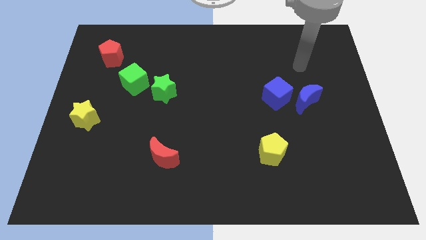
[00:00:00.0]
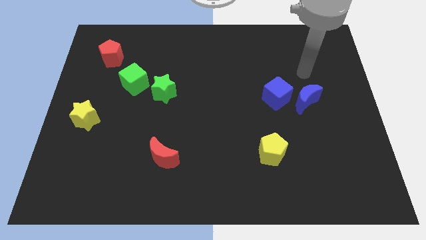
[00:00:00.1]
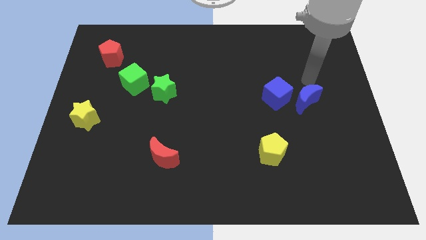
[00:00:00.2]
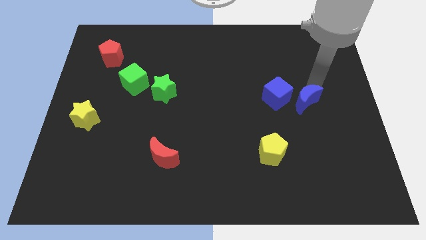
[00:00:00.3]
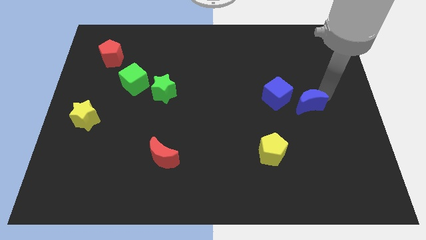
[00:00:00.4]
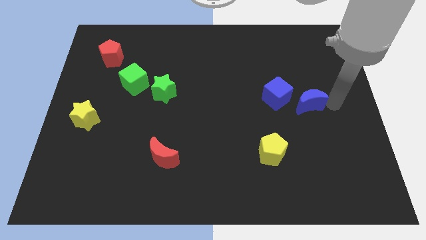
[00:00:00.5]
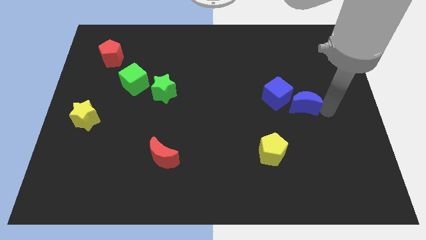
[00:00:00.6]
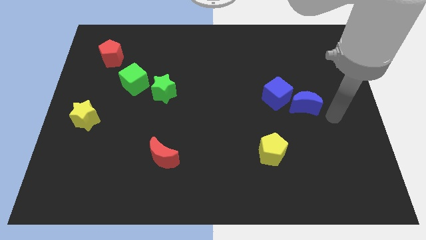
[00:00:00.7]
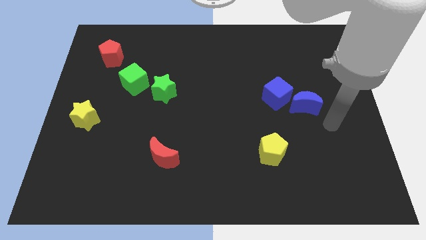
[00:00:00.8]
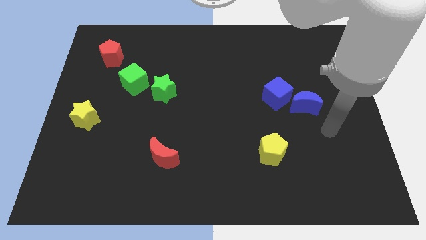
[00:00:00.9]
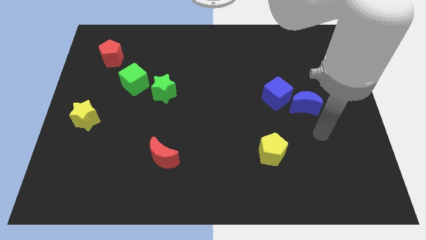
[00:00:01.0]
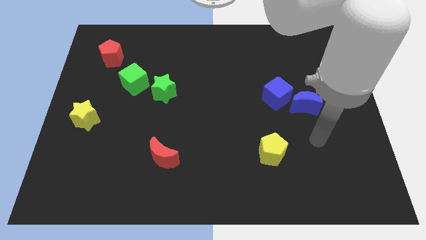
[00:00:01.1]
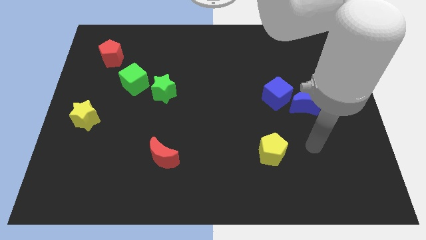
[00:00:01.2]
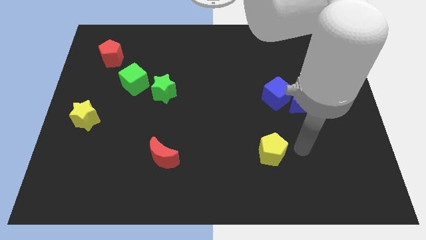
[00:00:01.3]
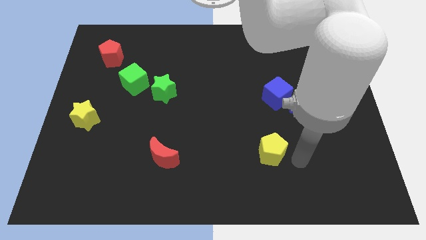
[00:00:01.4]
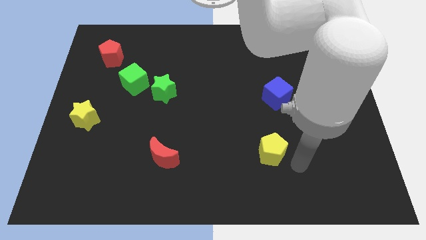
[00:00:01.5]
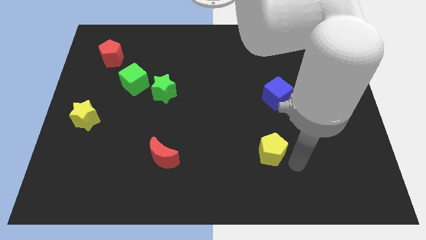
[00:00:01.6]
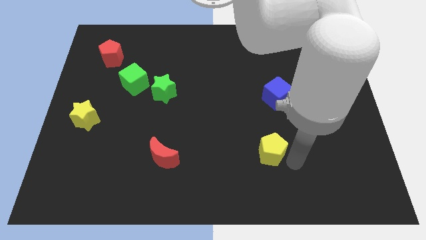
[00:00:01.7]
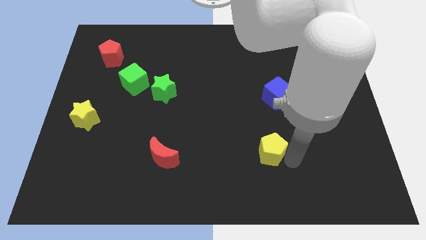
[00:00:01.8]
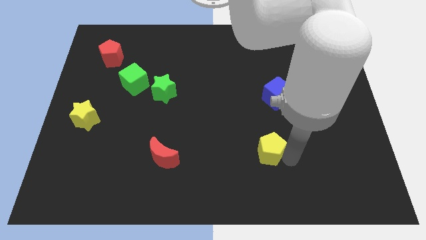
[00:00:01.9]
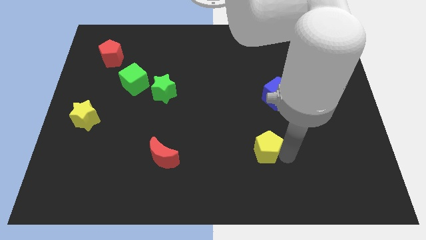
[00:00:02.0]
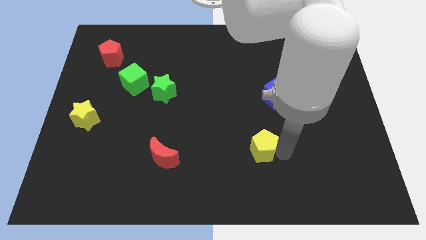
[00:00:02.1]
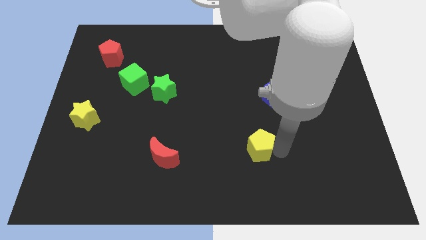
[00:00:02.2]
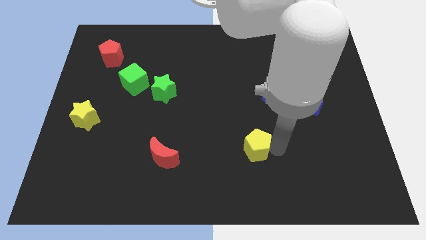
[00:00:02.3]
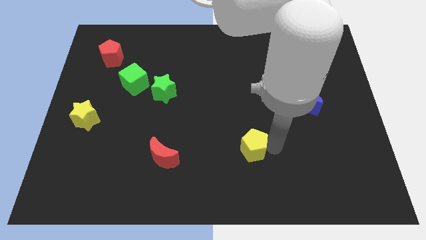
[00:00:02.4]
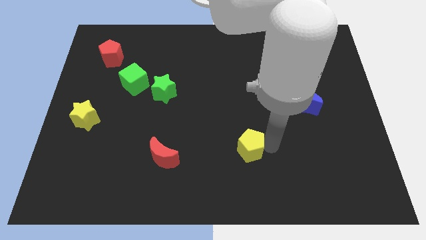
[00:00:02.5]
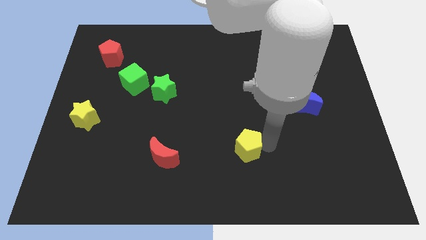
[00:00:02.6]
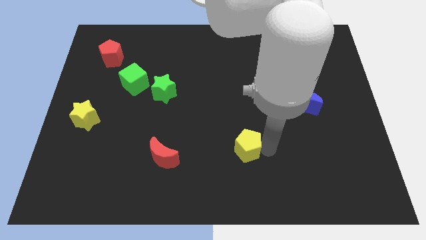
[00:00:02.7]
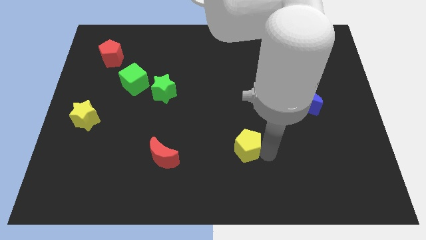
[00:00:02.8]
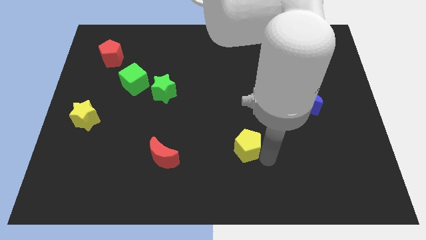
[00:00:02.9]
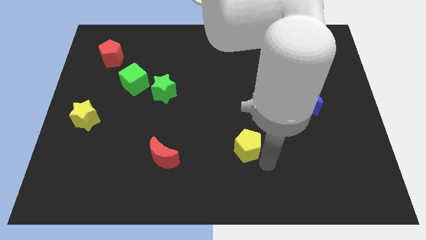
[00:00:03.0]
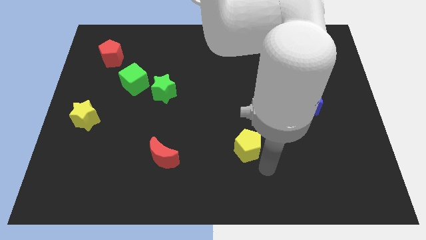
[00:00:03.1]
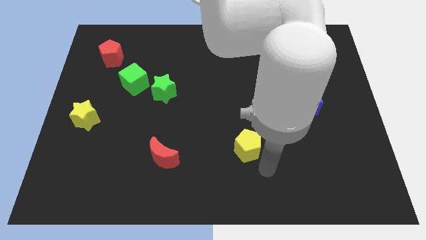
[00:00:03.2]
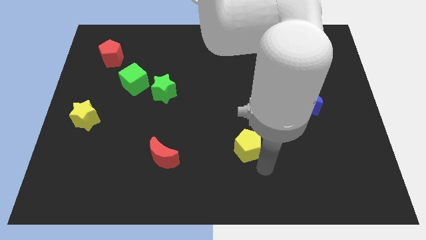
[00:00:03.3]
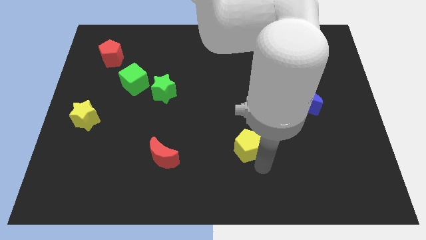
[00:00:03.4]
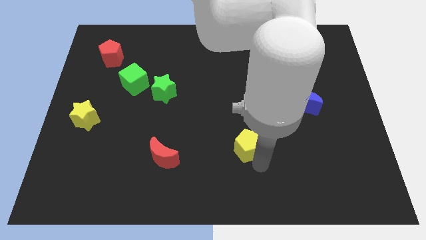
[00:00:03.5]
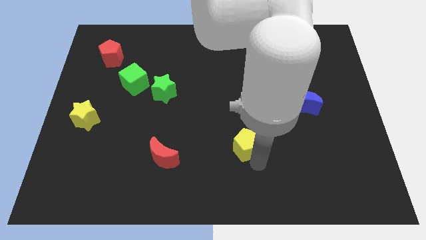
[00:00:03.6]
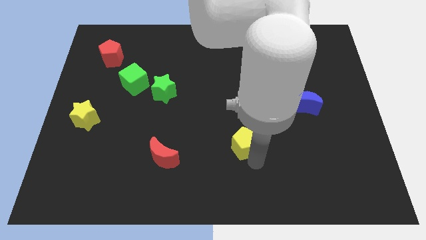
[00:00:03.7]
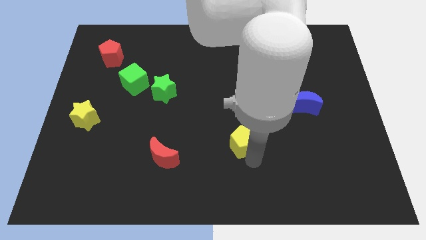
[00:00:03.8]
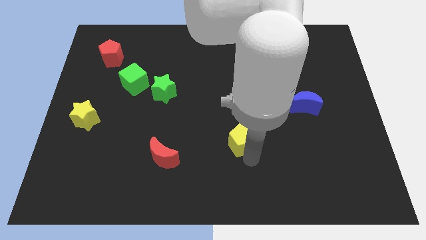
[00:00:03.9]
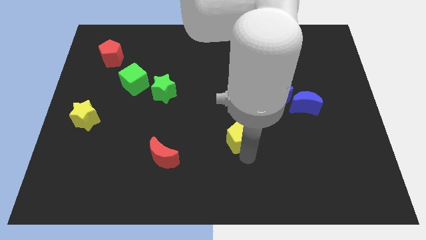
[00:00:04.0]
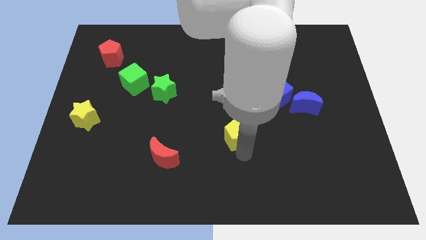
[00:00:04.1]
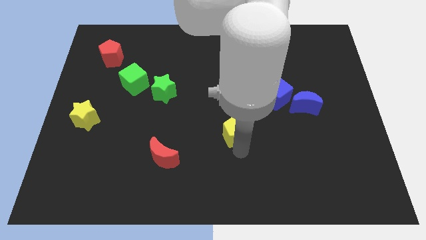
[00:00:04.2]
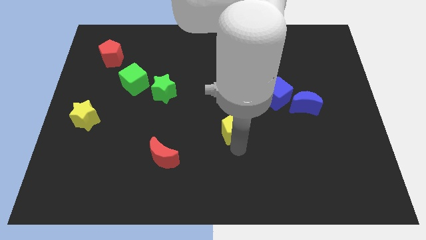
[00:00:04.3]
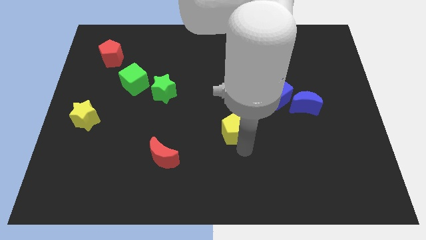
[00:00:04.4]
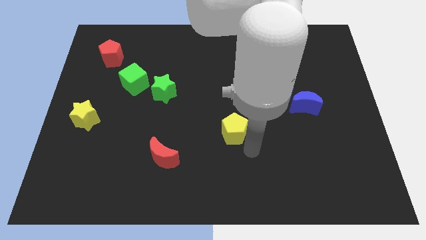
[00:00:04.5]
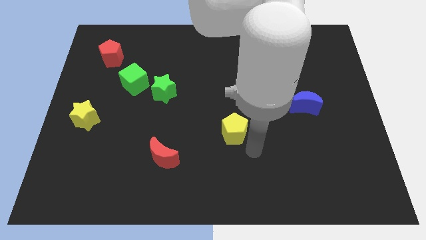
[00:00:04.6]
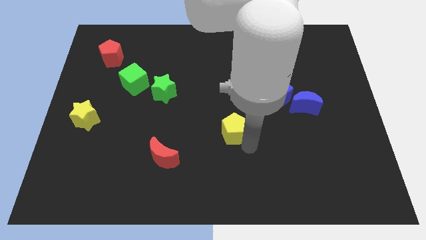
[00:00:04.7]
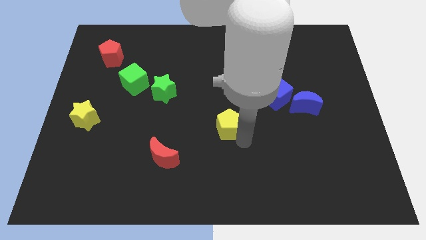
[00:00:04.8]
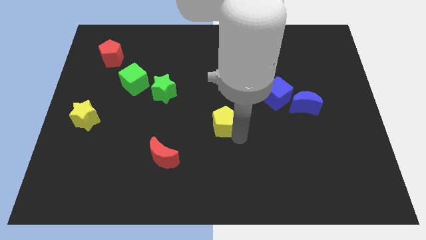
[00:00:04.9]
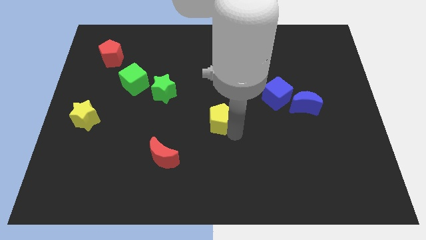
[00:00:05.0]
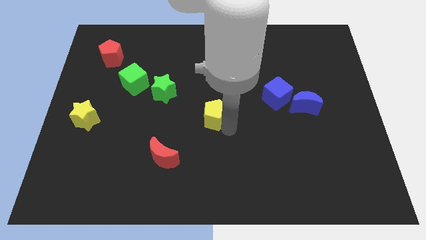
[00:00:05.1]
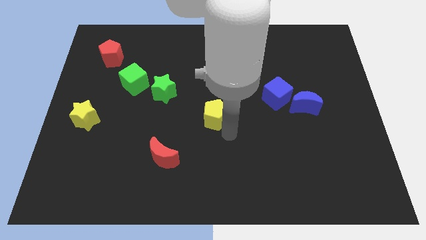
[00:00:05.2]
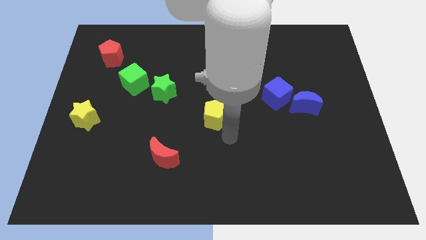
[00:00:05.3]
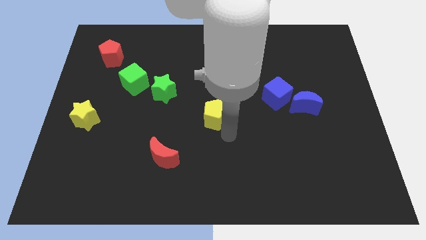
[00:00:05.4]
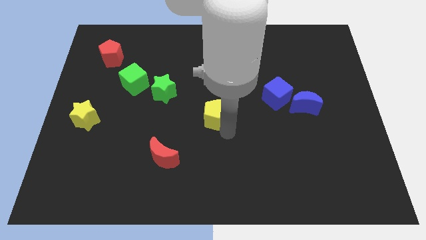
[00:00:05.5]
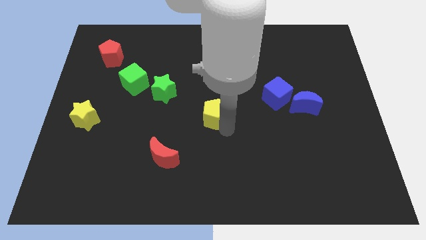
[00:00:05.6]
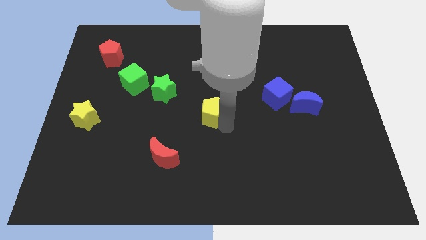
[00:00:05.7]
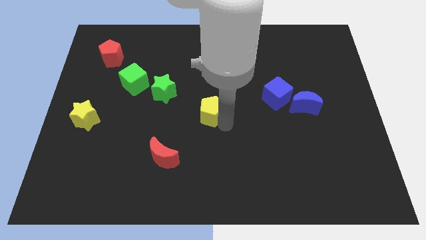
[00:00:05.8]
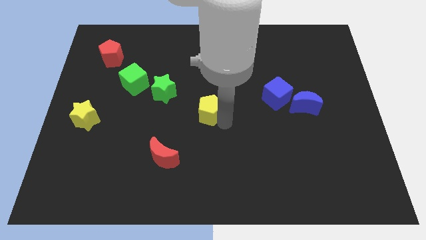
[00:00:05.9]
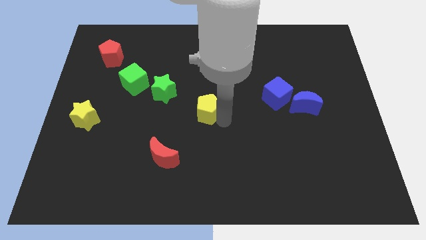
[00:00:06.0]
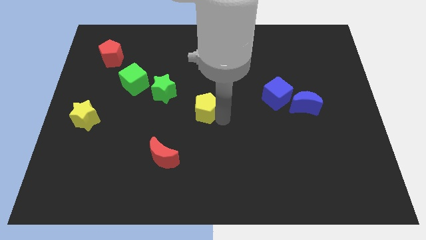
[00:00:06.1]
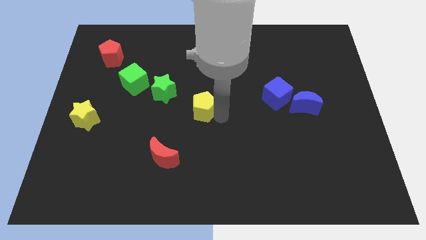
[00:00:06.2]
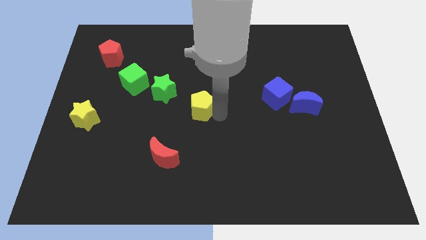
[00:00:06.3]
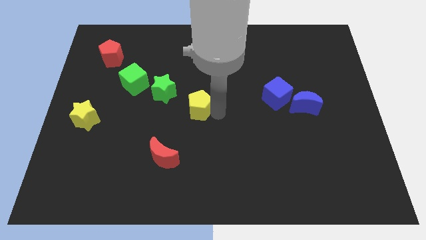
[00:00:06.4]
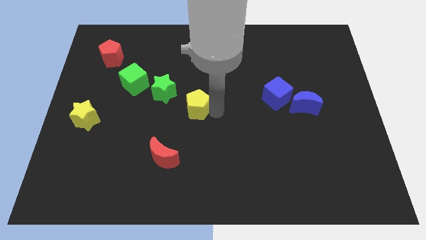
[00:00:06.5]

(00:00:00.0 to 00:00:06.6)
slide the yellow pentagon upwards and to the left

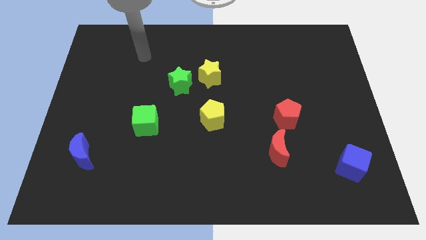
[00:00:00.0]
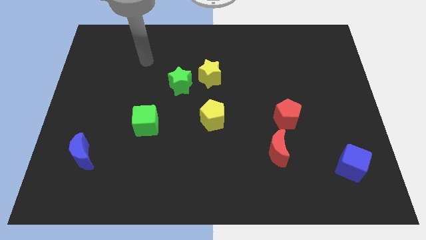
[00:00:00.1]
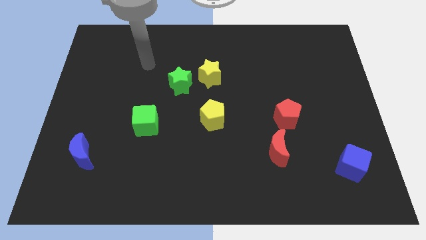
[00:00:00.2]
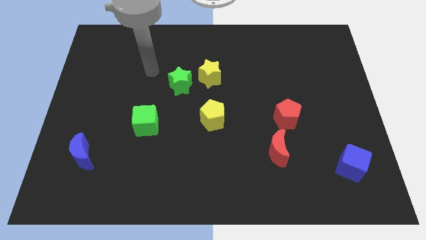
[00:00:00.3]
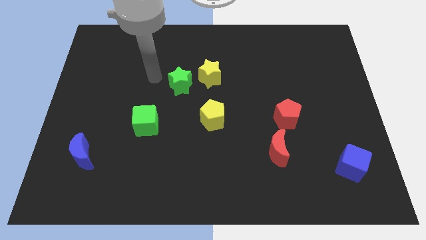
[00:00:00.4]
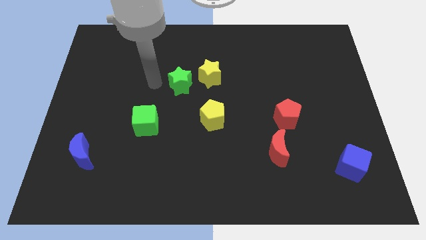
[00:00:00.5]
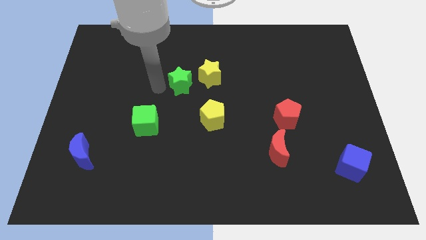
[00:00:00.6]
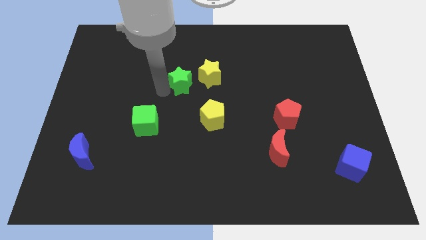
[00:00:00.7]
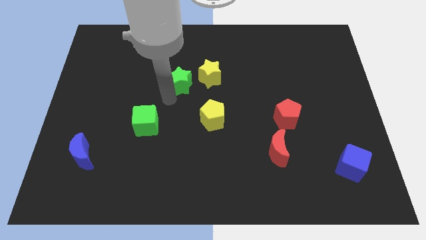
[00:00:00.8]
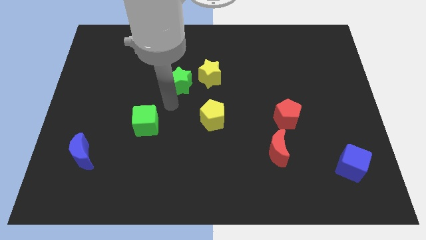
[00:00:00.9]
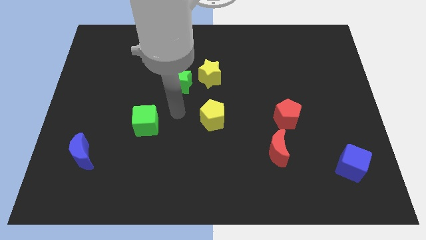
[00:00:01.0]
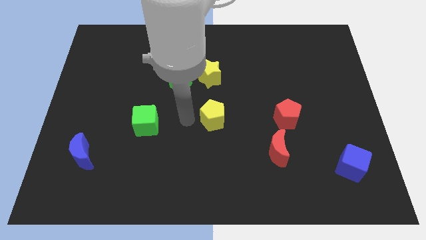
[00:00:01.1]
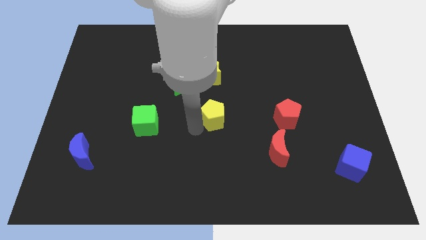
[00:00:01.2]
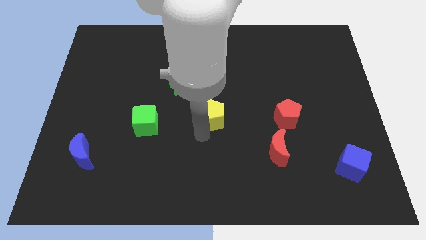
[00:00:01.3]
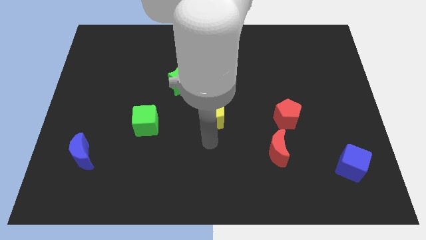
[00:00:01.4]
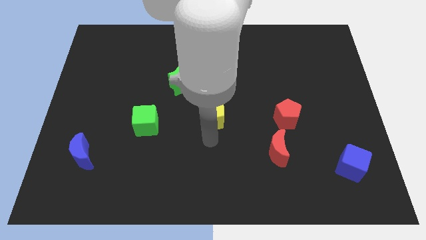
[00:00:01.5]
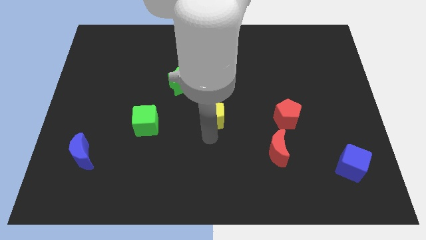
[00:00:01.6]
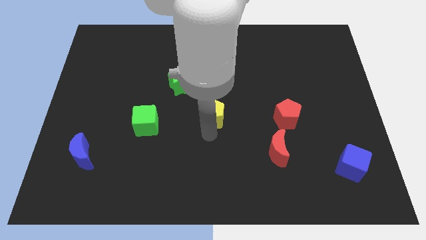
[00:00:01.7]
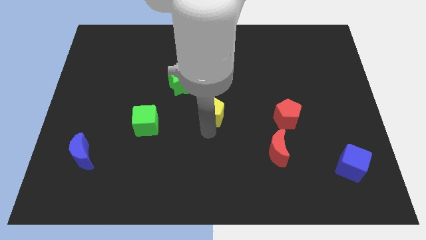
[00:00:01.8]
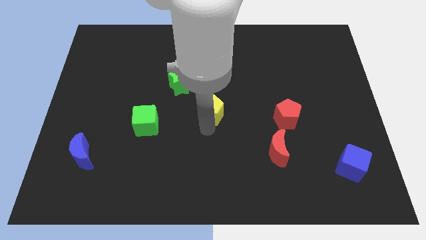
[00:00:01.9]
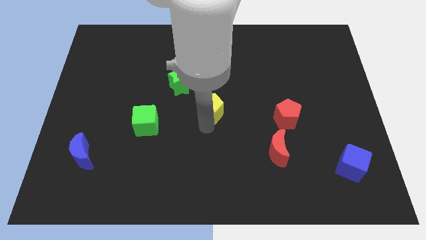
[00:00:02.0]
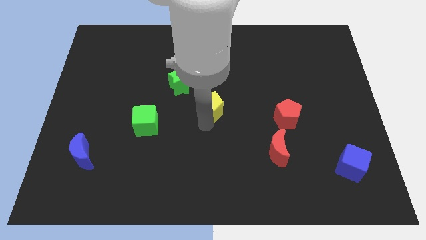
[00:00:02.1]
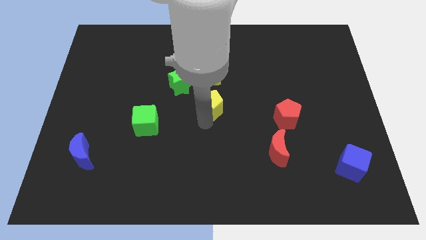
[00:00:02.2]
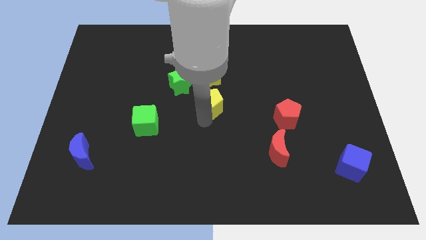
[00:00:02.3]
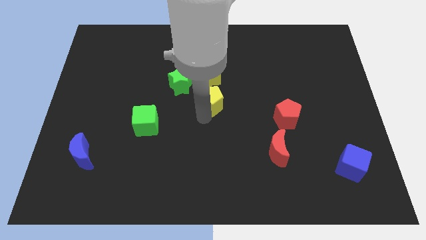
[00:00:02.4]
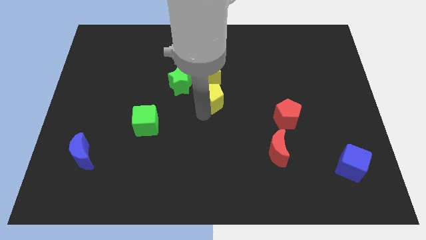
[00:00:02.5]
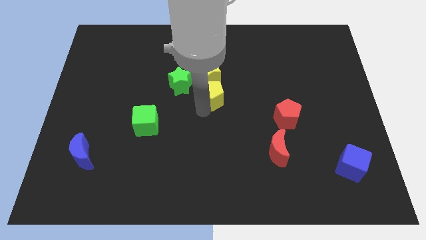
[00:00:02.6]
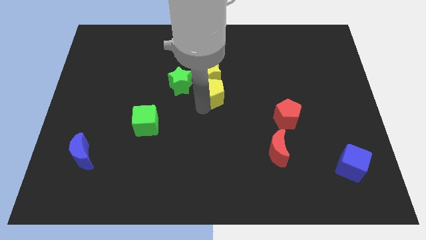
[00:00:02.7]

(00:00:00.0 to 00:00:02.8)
slide the yellow pentagon upwards slightly
